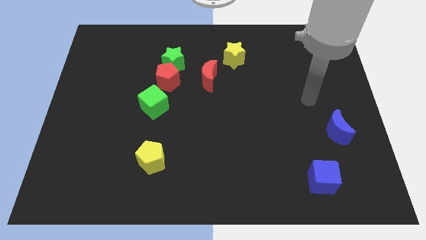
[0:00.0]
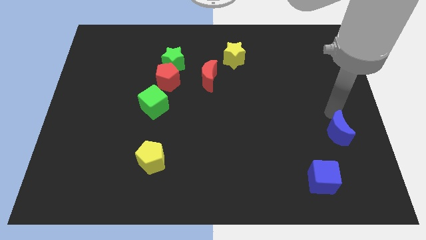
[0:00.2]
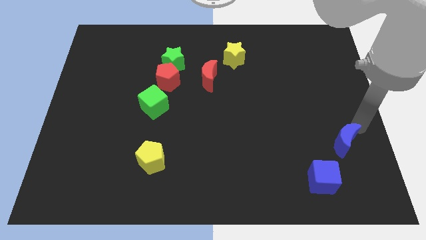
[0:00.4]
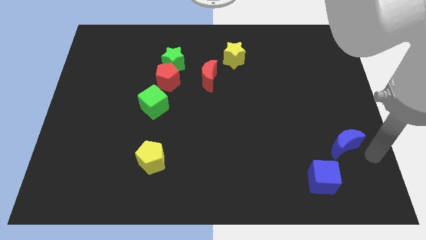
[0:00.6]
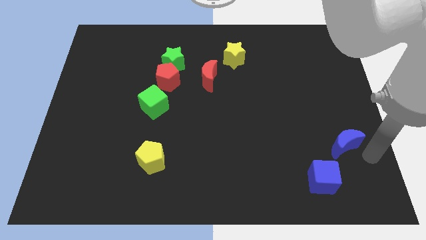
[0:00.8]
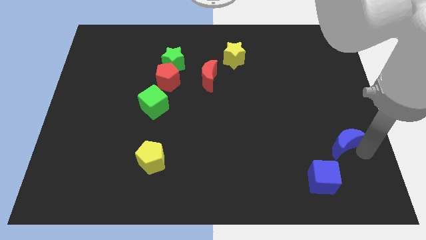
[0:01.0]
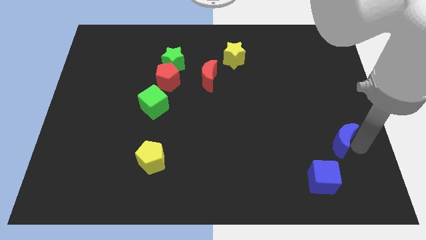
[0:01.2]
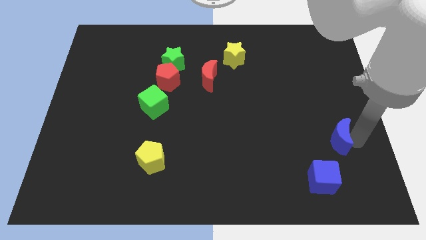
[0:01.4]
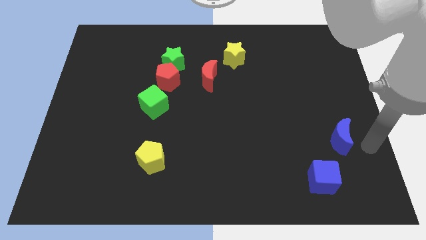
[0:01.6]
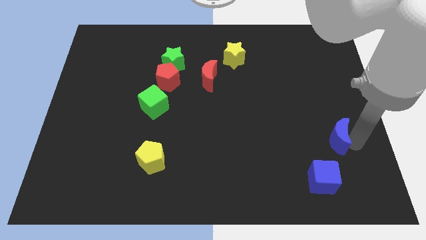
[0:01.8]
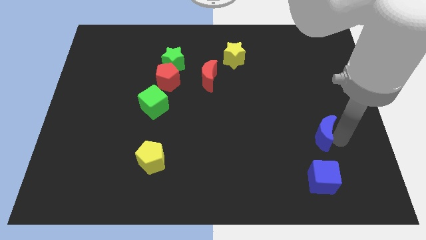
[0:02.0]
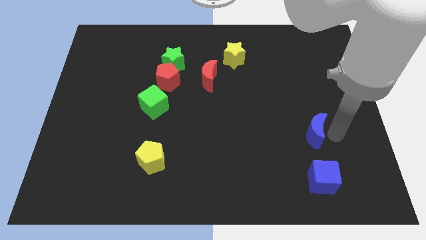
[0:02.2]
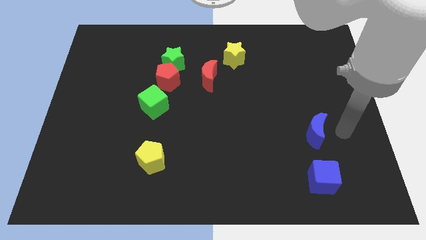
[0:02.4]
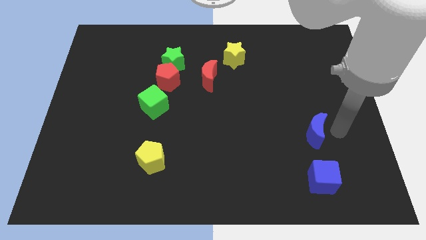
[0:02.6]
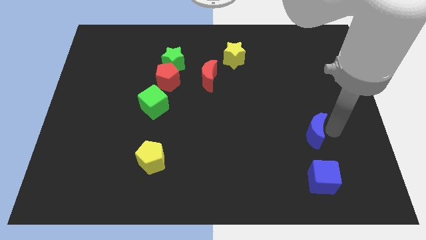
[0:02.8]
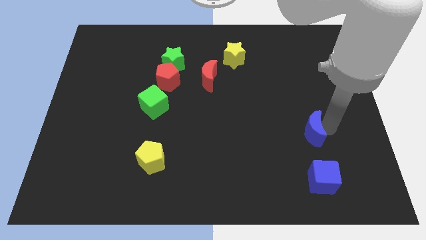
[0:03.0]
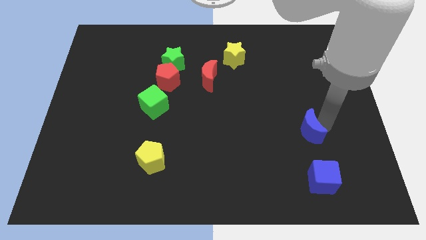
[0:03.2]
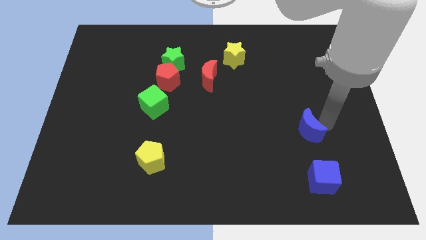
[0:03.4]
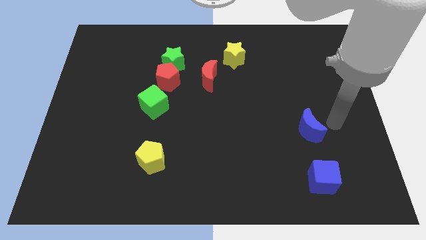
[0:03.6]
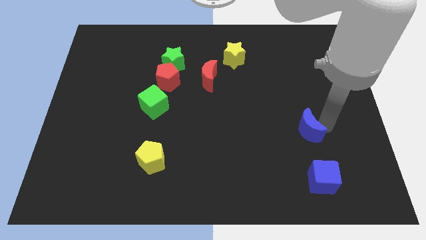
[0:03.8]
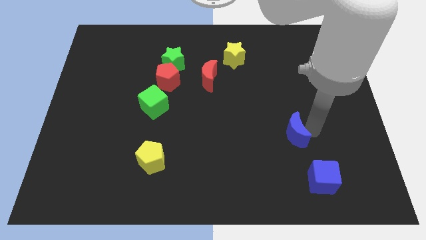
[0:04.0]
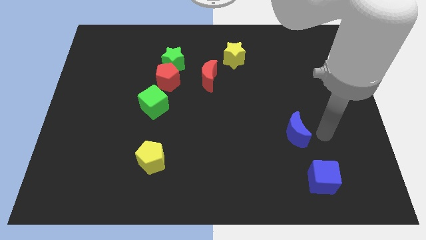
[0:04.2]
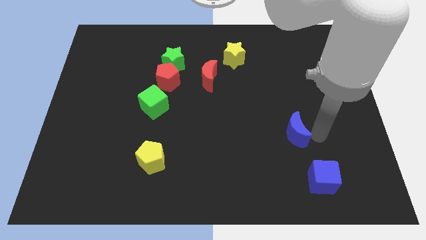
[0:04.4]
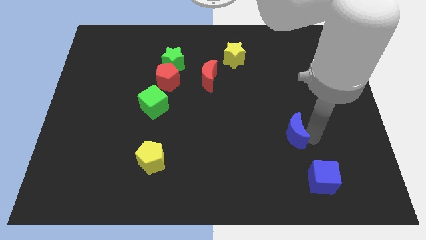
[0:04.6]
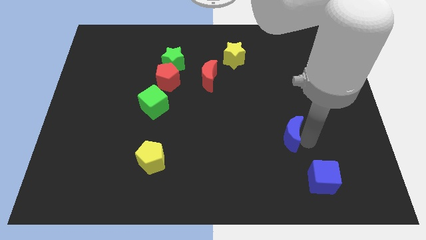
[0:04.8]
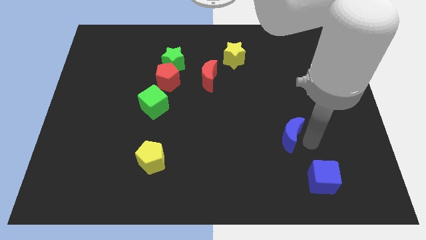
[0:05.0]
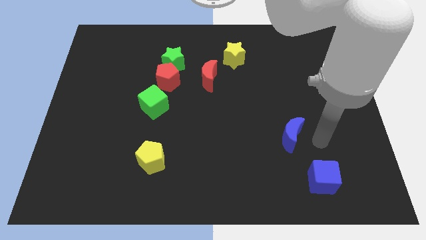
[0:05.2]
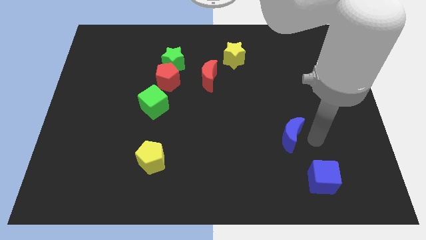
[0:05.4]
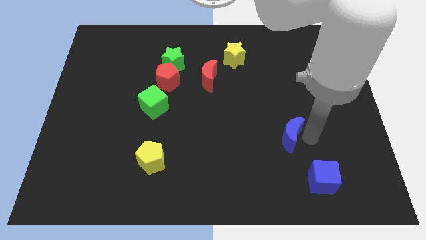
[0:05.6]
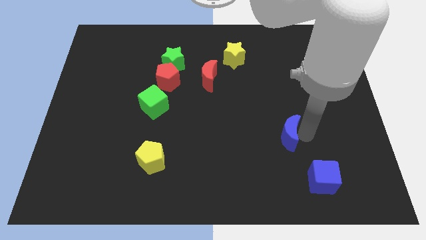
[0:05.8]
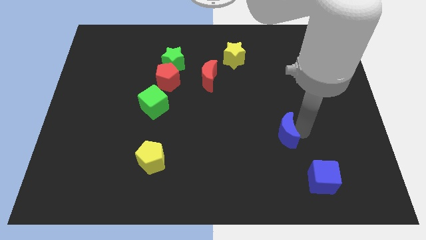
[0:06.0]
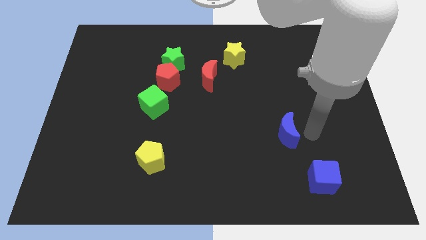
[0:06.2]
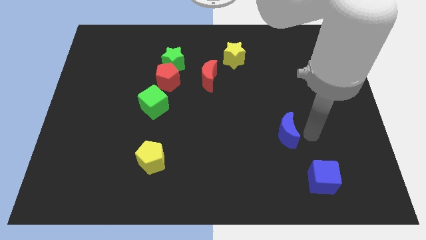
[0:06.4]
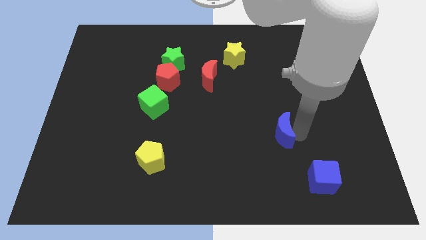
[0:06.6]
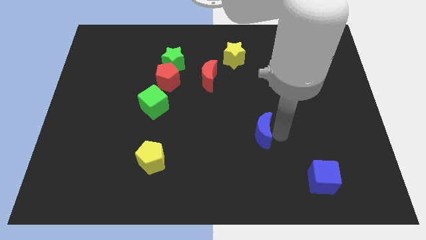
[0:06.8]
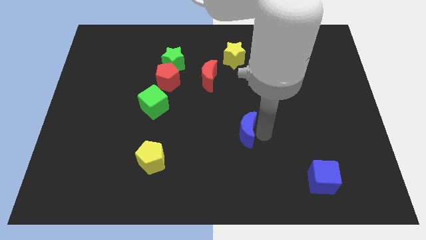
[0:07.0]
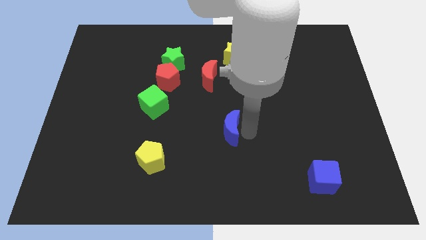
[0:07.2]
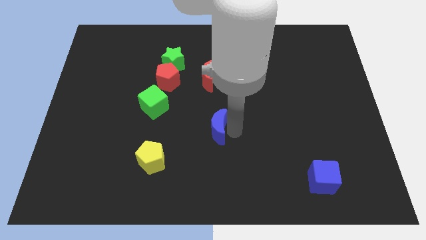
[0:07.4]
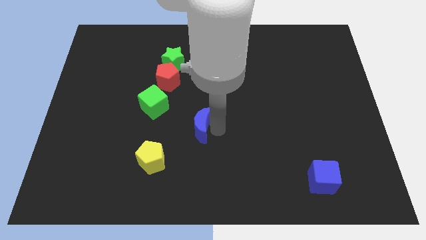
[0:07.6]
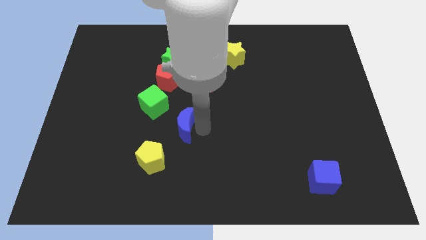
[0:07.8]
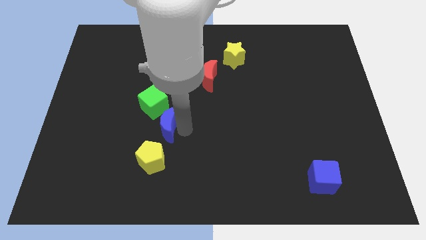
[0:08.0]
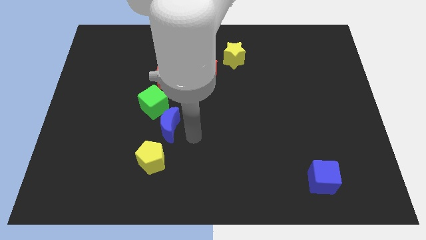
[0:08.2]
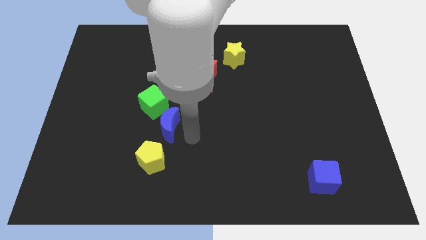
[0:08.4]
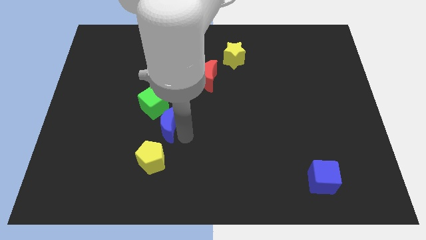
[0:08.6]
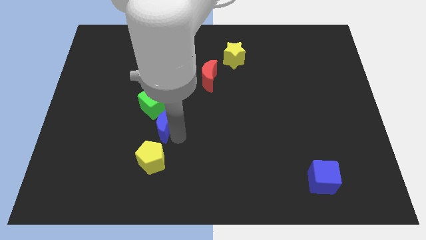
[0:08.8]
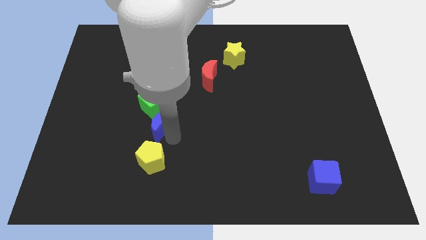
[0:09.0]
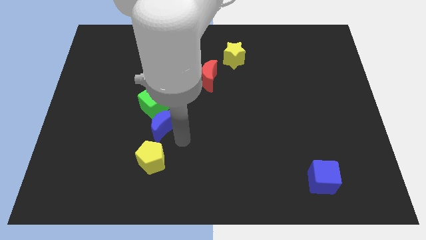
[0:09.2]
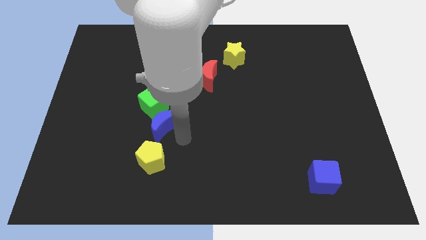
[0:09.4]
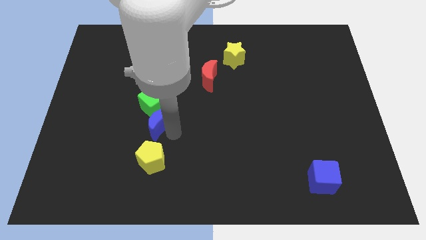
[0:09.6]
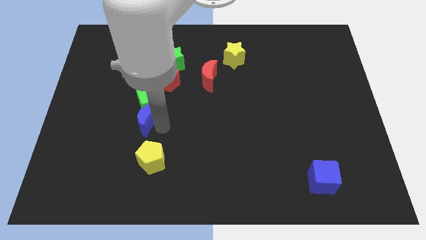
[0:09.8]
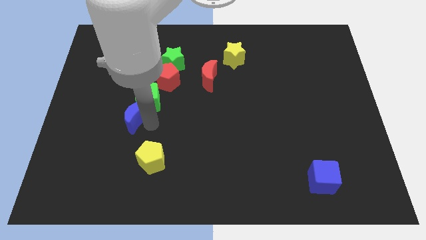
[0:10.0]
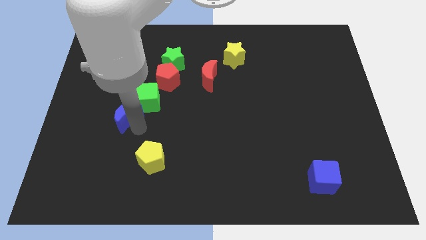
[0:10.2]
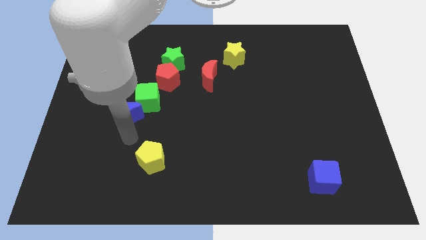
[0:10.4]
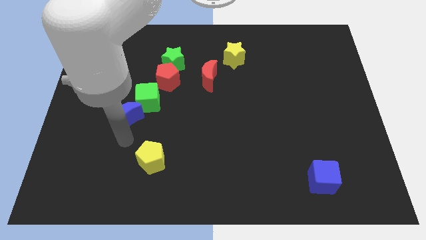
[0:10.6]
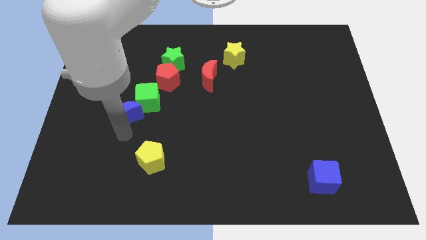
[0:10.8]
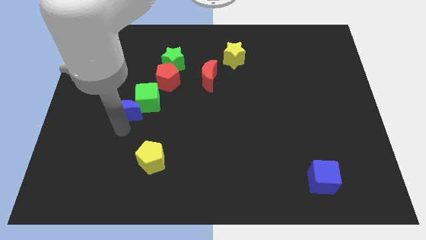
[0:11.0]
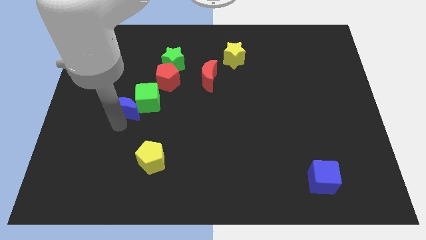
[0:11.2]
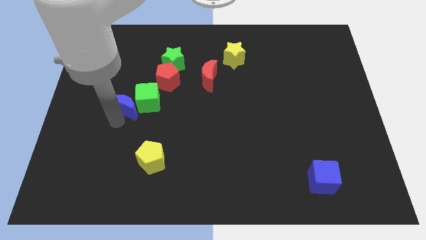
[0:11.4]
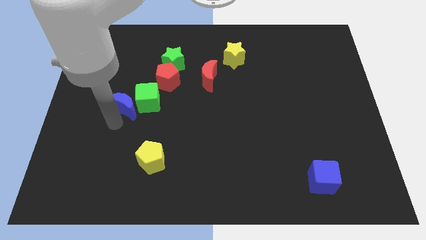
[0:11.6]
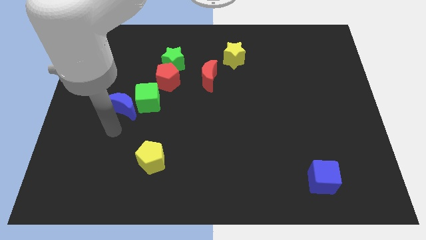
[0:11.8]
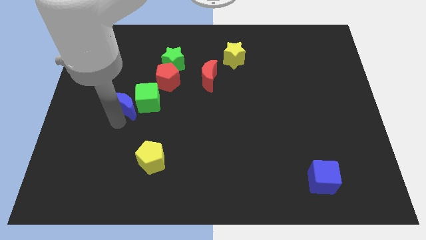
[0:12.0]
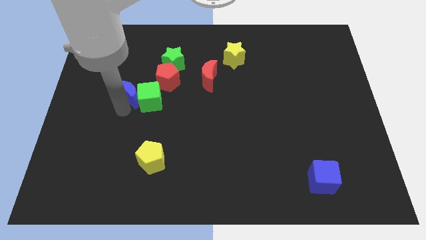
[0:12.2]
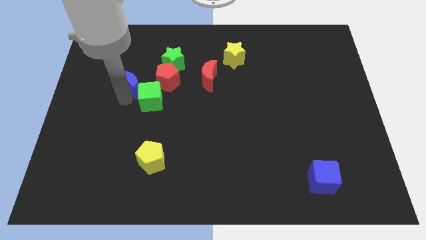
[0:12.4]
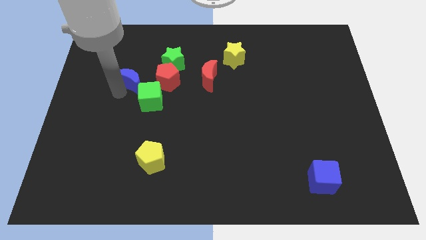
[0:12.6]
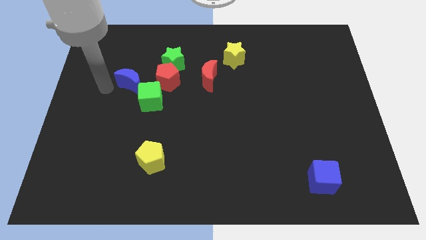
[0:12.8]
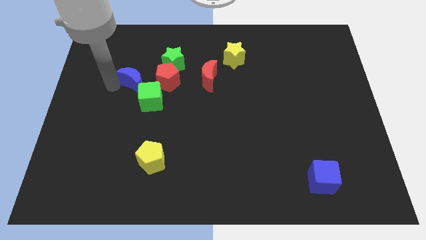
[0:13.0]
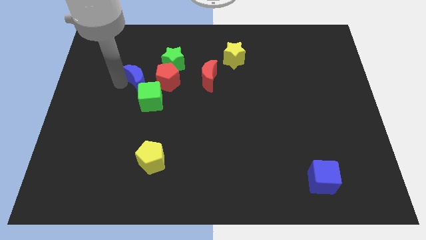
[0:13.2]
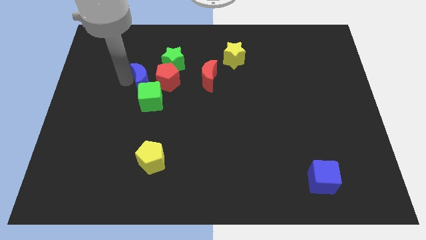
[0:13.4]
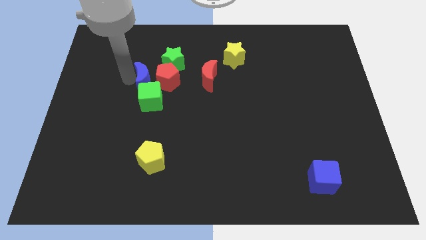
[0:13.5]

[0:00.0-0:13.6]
slide the blue moon left of the red moon

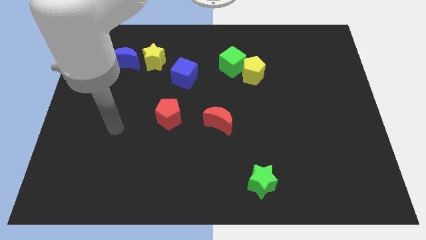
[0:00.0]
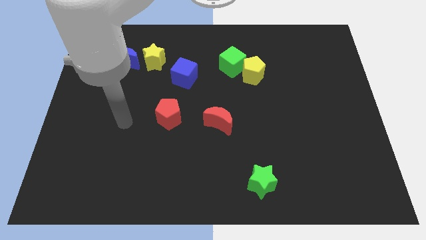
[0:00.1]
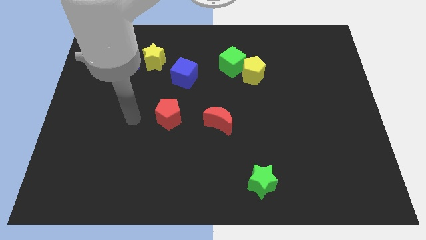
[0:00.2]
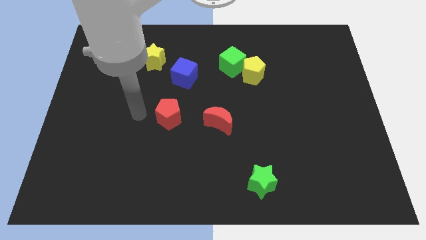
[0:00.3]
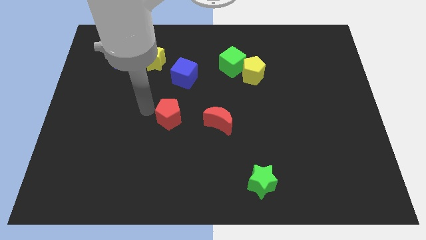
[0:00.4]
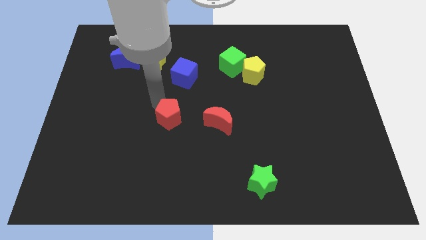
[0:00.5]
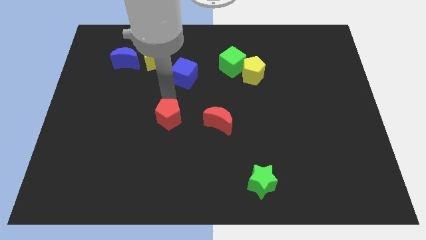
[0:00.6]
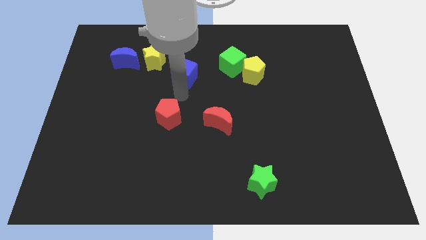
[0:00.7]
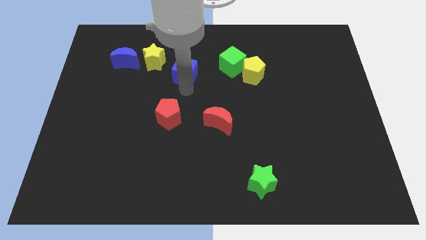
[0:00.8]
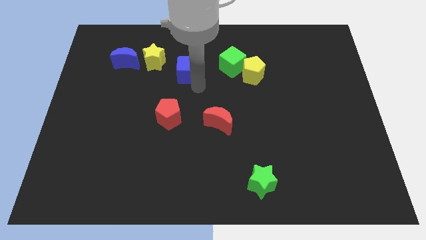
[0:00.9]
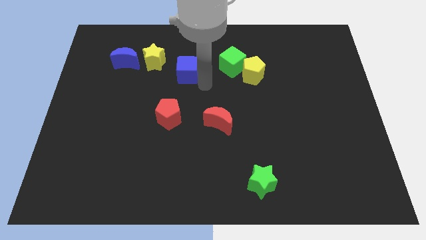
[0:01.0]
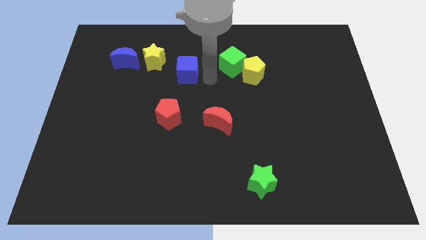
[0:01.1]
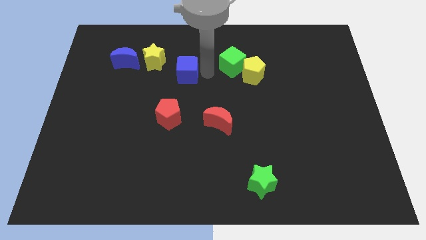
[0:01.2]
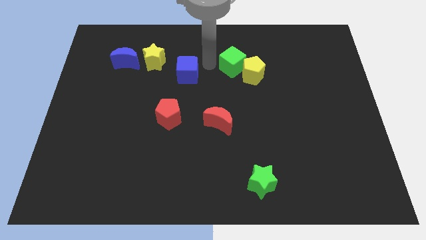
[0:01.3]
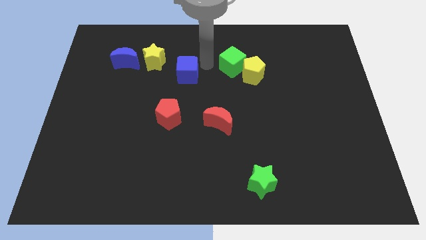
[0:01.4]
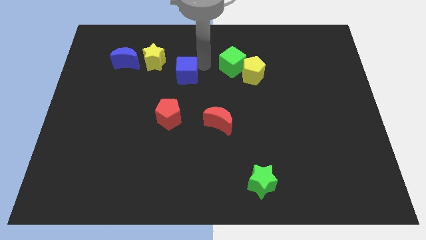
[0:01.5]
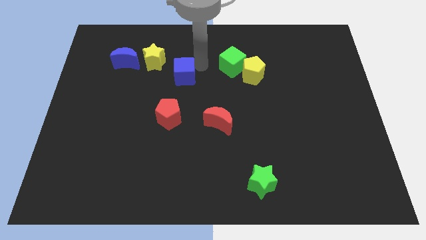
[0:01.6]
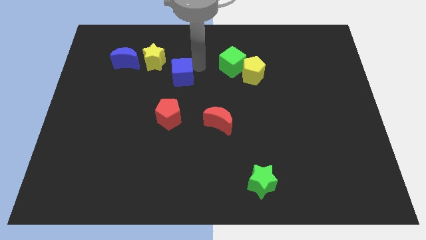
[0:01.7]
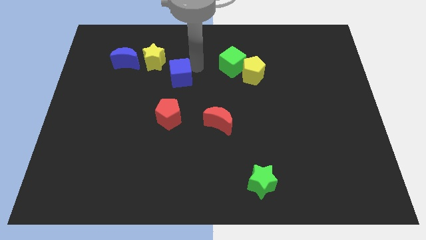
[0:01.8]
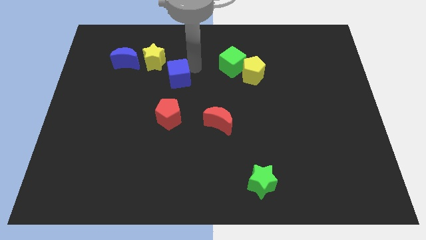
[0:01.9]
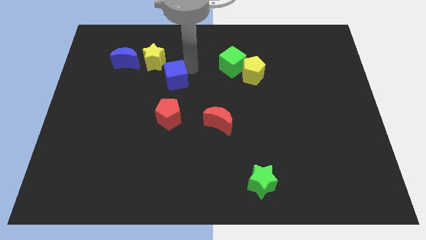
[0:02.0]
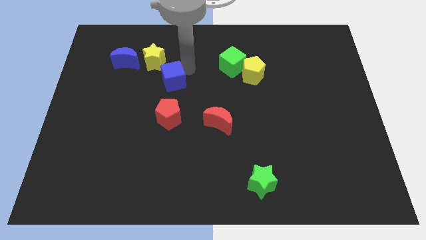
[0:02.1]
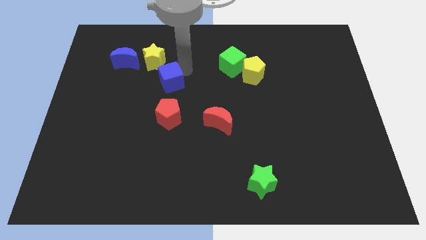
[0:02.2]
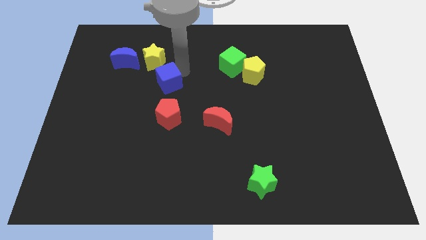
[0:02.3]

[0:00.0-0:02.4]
put the blue cube to the bottom of the yellow star
